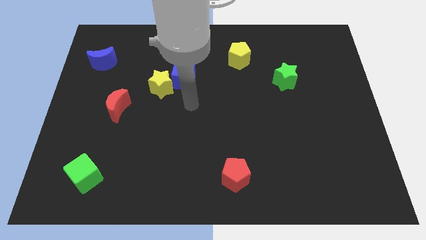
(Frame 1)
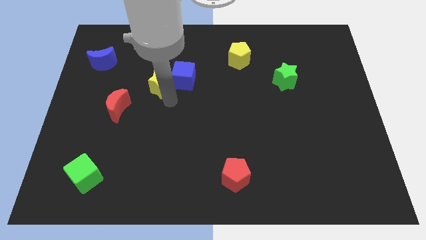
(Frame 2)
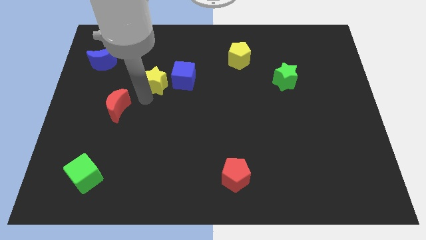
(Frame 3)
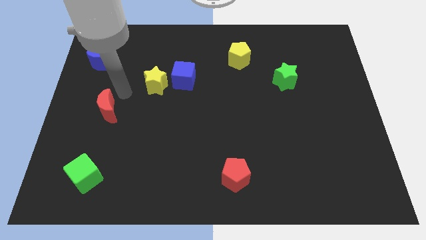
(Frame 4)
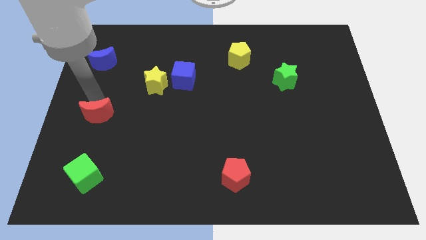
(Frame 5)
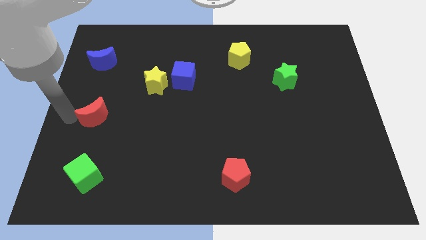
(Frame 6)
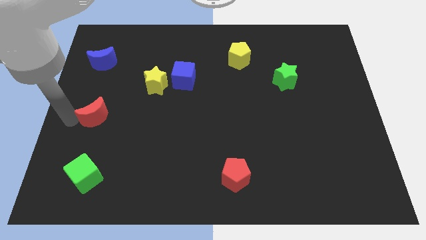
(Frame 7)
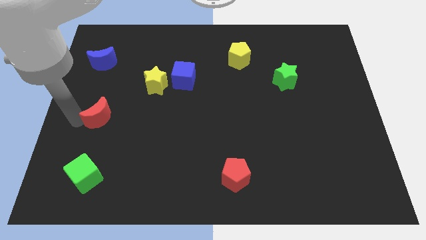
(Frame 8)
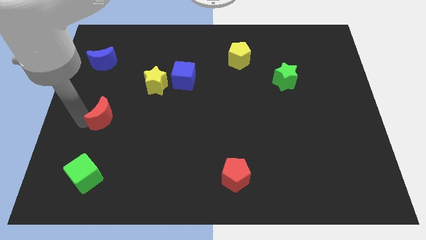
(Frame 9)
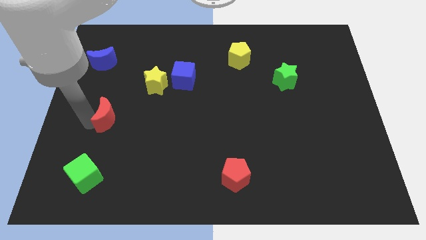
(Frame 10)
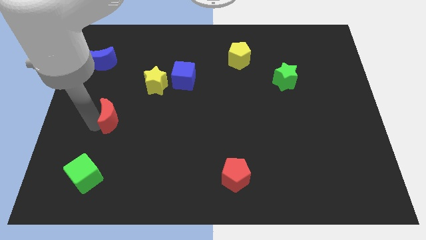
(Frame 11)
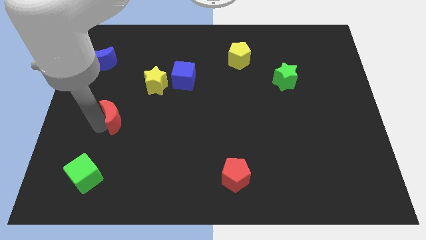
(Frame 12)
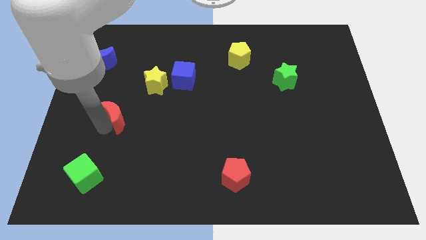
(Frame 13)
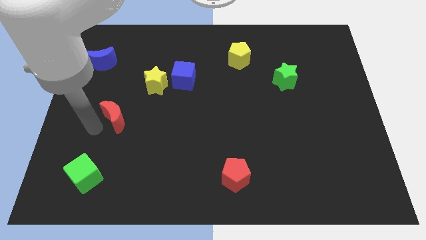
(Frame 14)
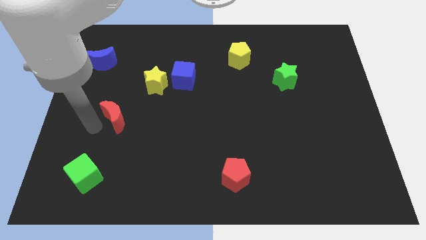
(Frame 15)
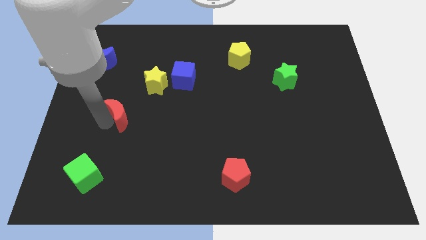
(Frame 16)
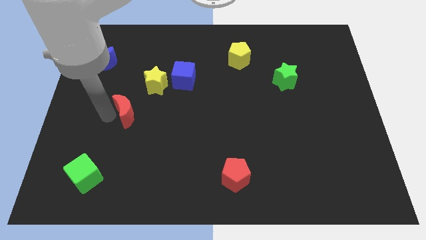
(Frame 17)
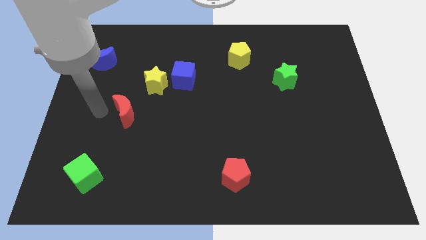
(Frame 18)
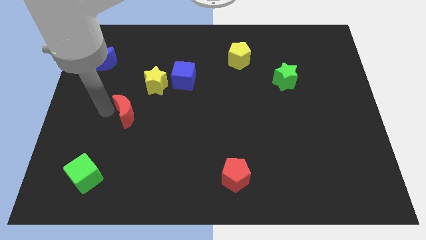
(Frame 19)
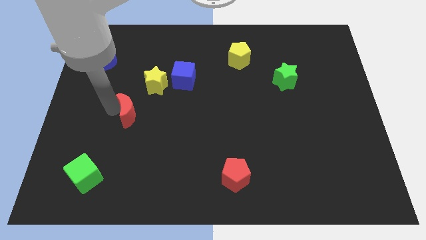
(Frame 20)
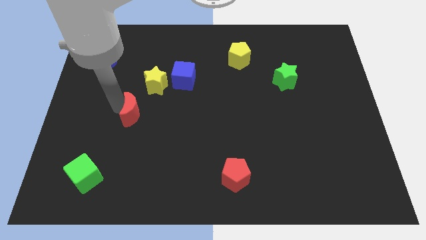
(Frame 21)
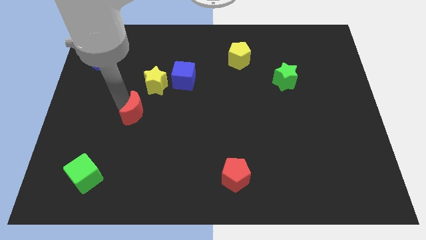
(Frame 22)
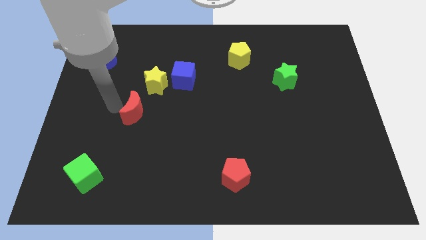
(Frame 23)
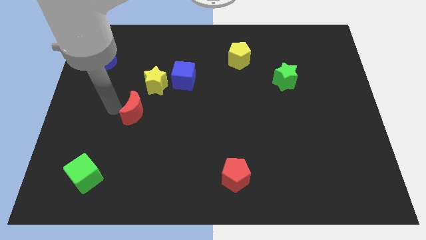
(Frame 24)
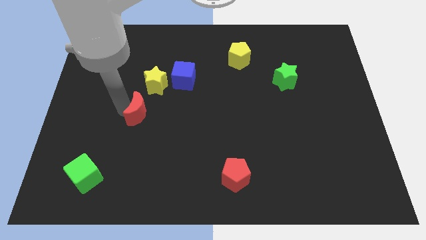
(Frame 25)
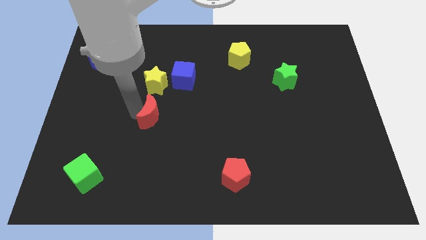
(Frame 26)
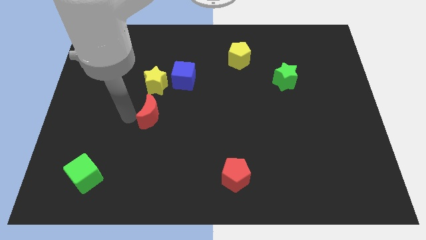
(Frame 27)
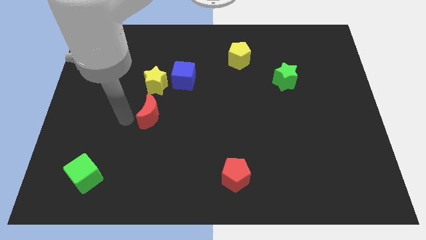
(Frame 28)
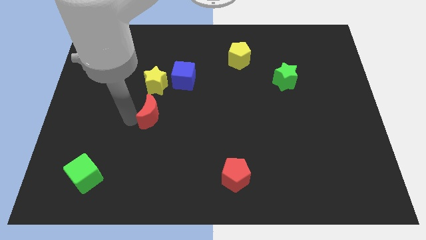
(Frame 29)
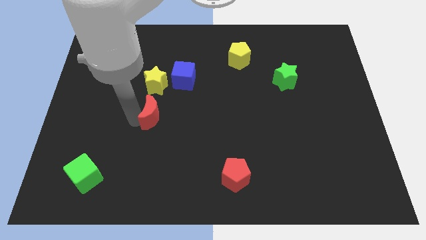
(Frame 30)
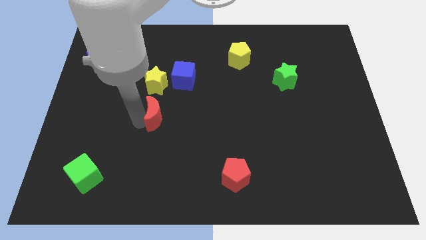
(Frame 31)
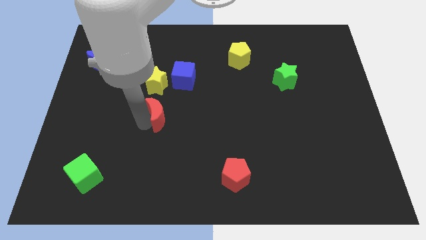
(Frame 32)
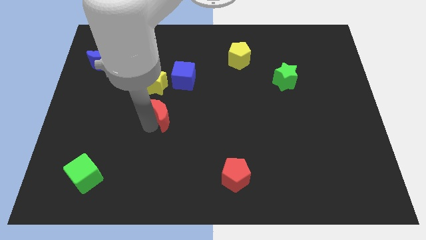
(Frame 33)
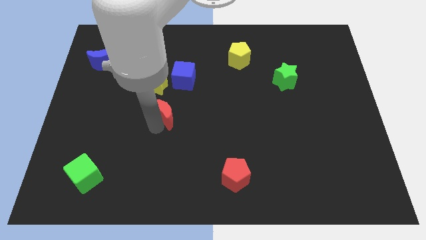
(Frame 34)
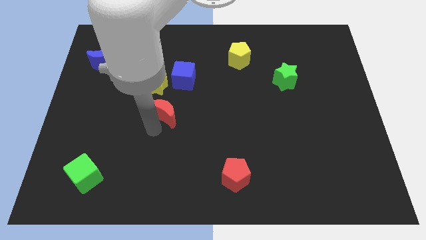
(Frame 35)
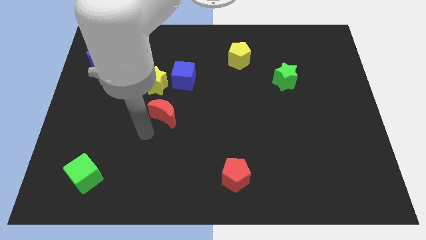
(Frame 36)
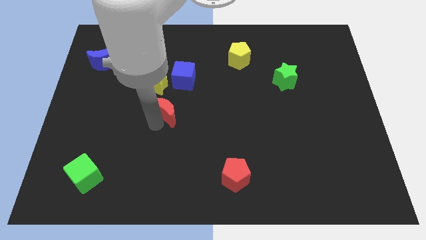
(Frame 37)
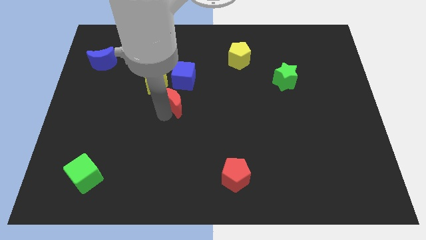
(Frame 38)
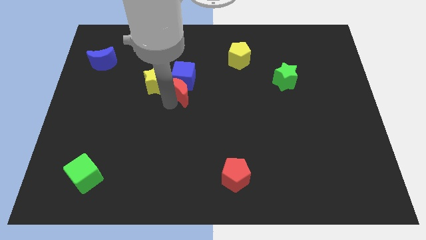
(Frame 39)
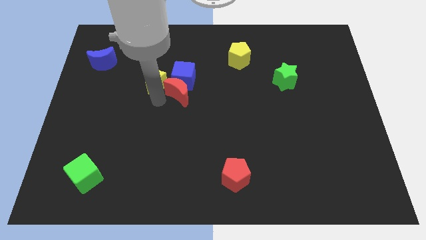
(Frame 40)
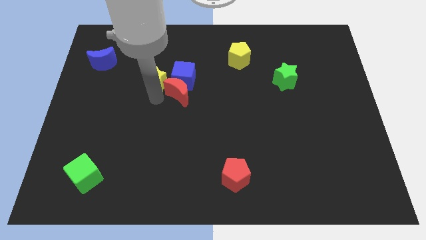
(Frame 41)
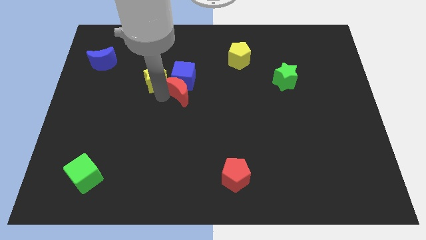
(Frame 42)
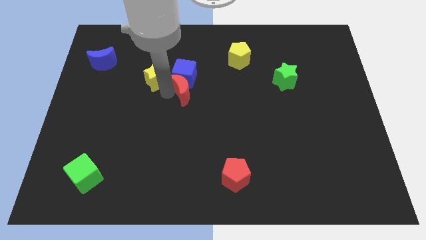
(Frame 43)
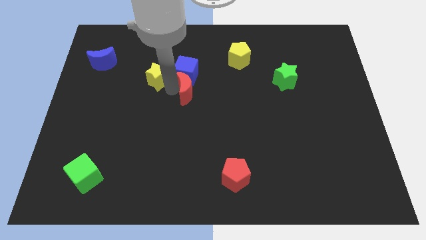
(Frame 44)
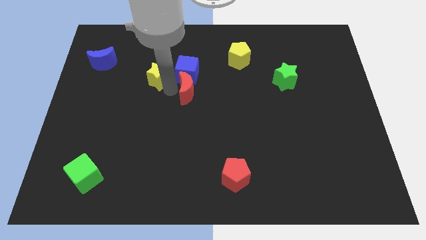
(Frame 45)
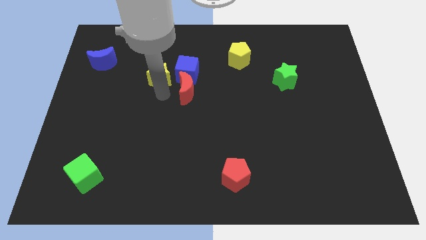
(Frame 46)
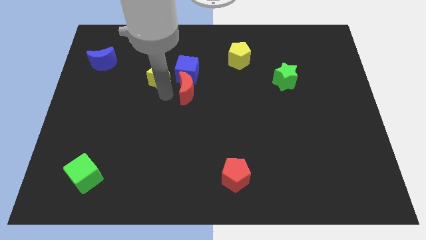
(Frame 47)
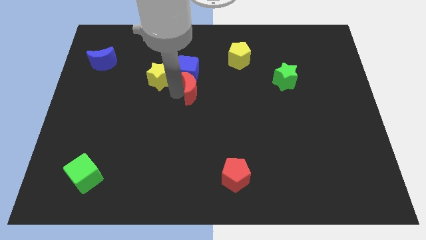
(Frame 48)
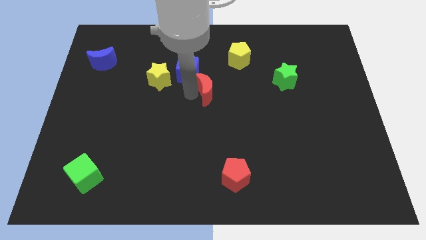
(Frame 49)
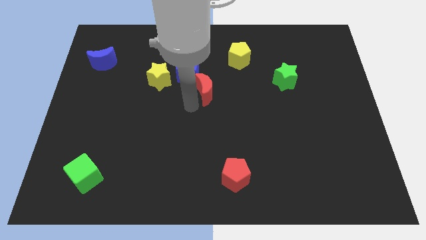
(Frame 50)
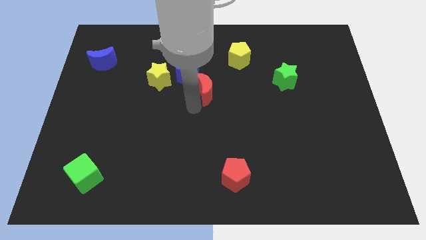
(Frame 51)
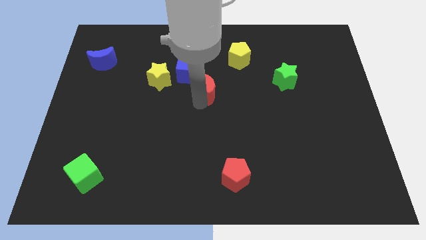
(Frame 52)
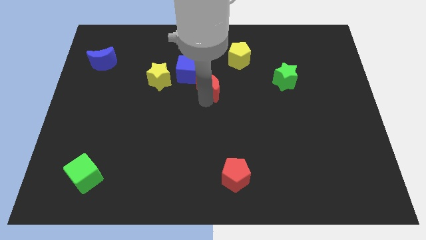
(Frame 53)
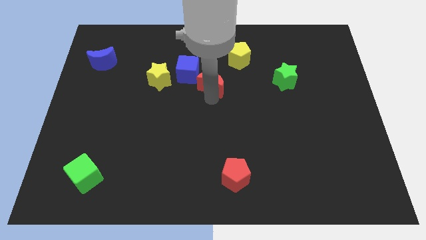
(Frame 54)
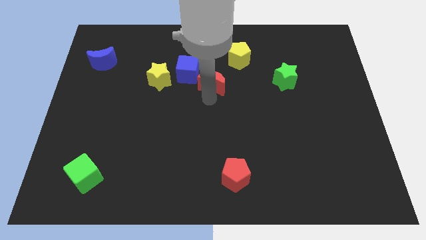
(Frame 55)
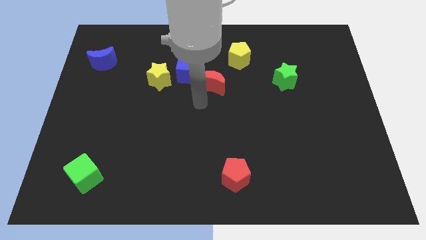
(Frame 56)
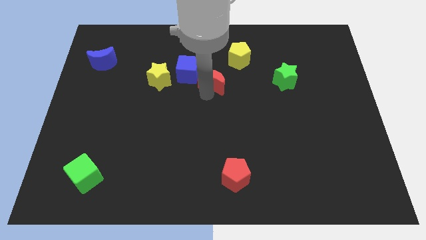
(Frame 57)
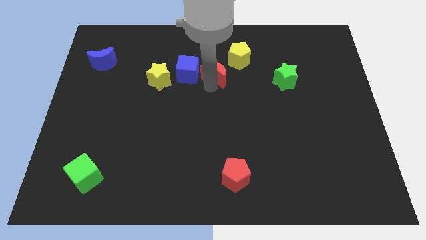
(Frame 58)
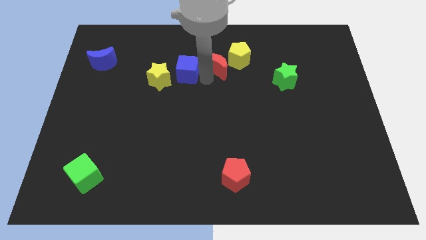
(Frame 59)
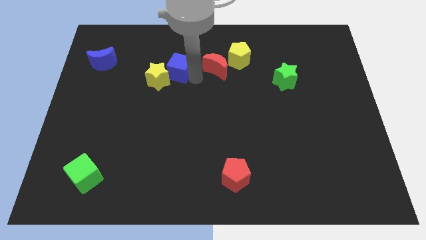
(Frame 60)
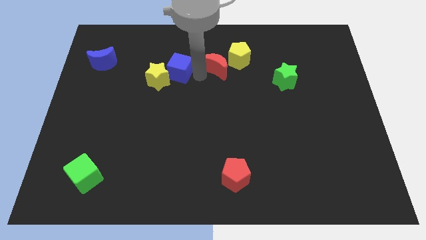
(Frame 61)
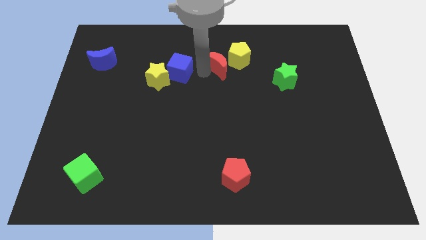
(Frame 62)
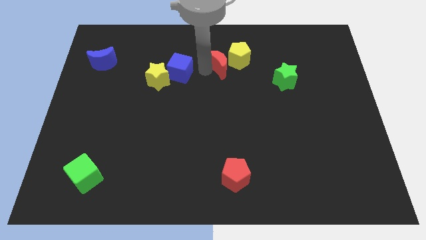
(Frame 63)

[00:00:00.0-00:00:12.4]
push the red moon towards the yellow pentagon
